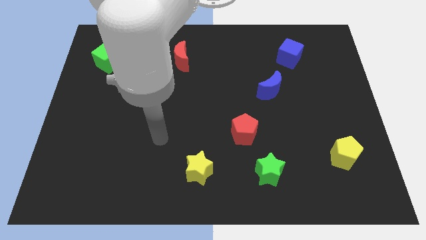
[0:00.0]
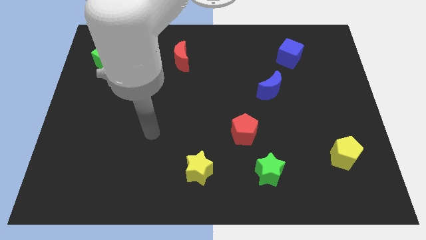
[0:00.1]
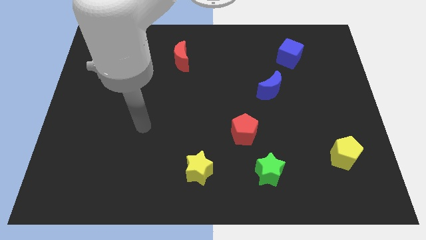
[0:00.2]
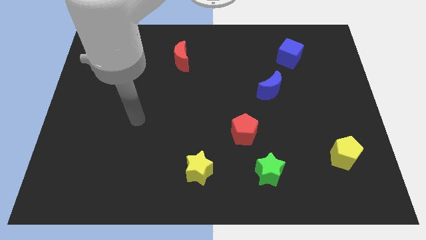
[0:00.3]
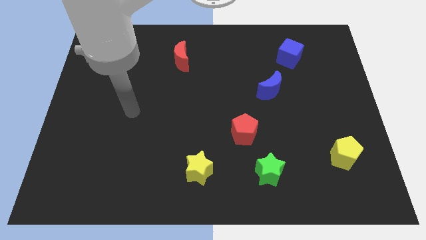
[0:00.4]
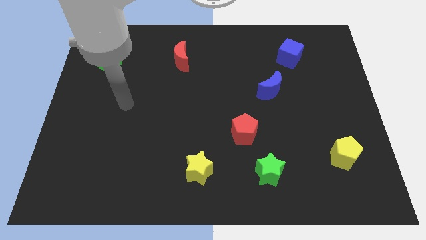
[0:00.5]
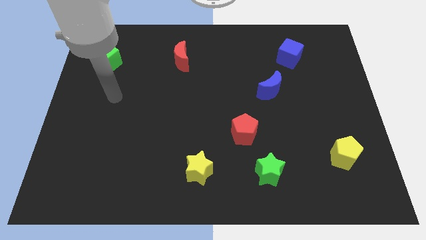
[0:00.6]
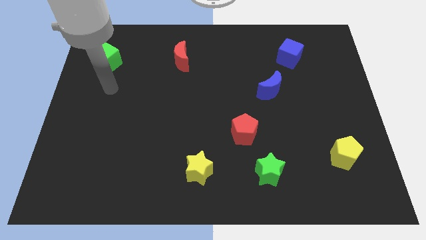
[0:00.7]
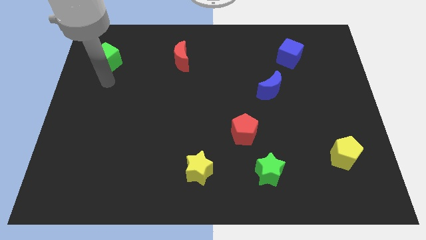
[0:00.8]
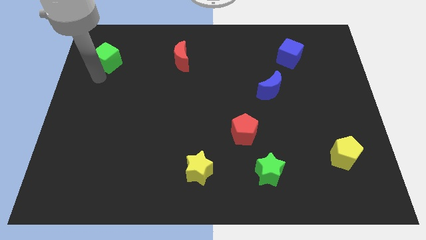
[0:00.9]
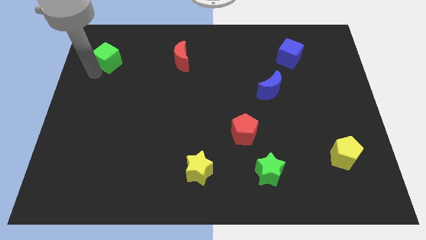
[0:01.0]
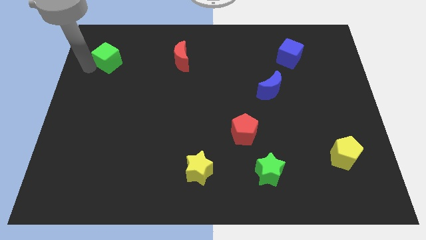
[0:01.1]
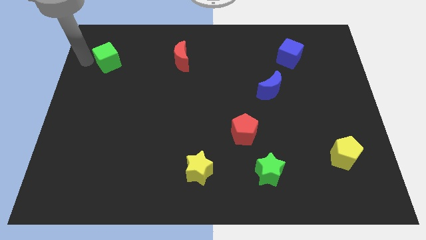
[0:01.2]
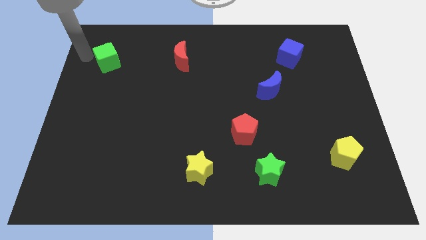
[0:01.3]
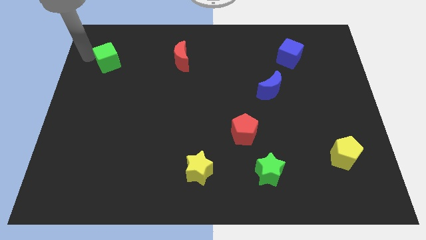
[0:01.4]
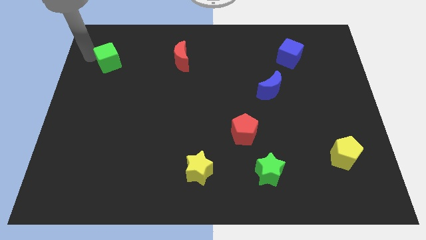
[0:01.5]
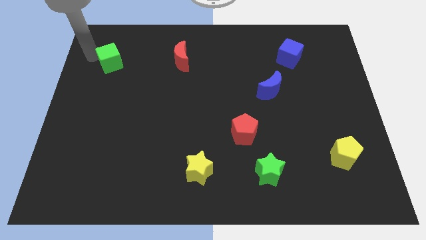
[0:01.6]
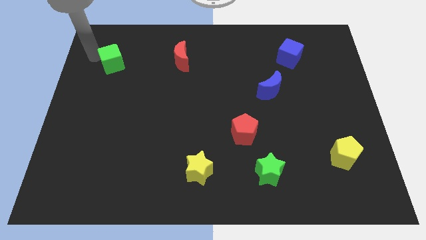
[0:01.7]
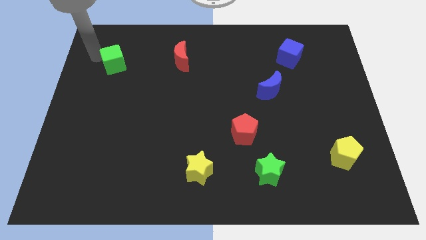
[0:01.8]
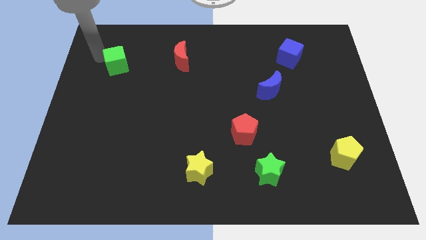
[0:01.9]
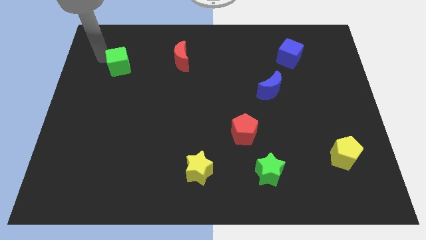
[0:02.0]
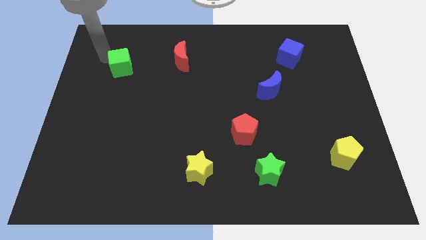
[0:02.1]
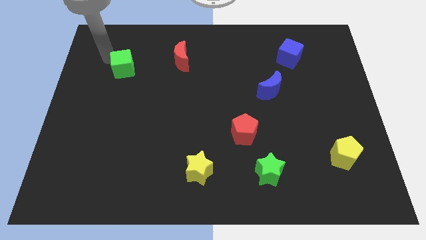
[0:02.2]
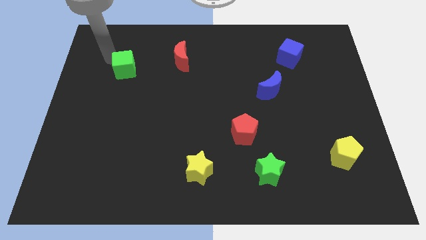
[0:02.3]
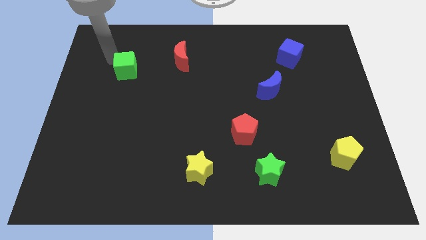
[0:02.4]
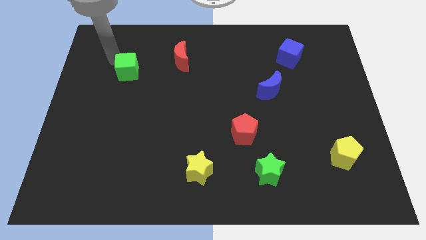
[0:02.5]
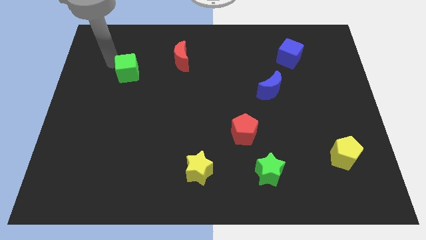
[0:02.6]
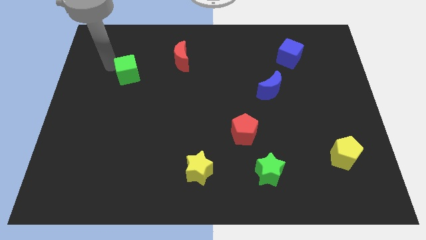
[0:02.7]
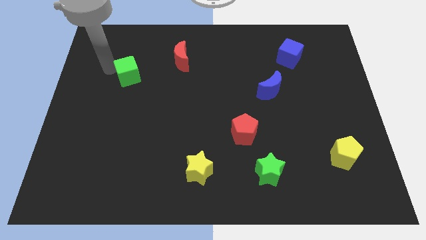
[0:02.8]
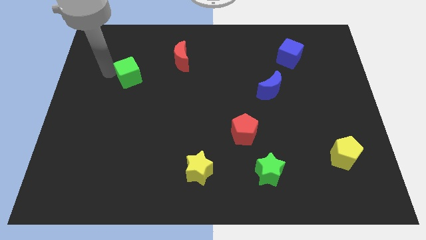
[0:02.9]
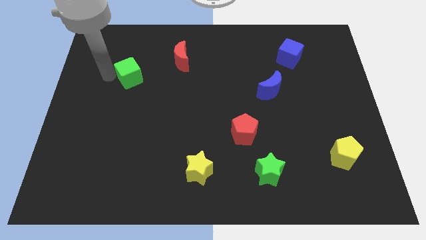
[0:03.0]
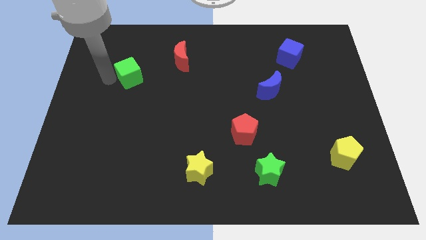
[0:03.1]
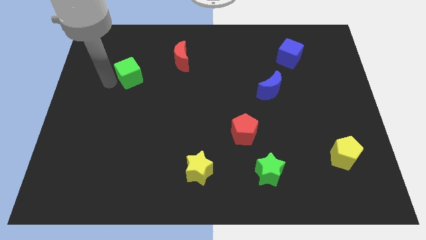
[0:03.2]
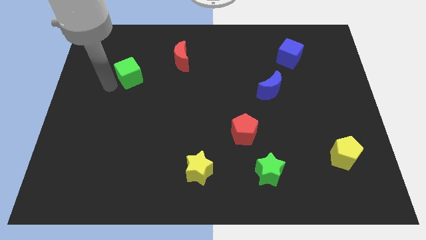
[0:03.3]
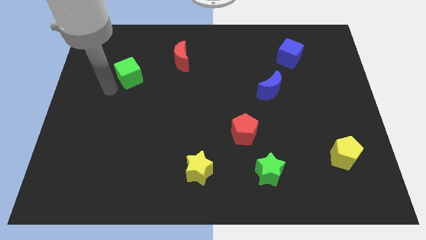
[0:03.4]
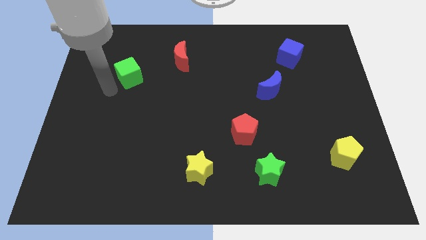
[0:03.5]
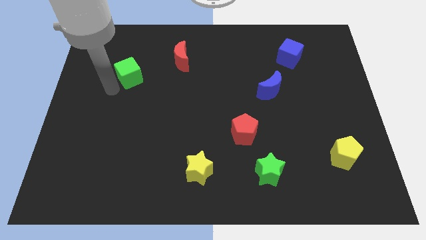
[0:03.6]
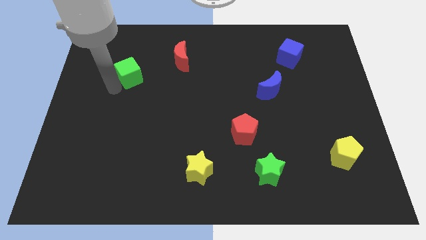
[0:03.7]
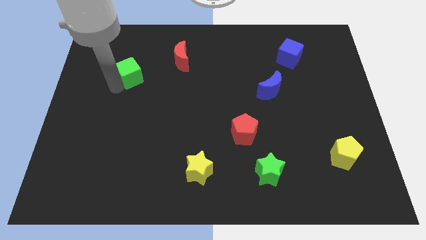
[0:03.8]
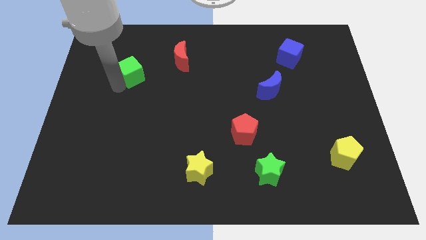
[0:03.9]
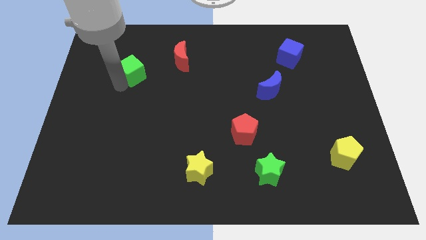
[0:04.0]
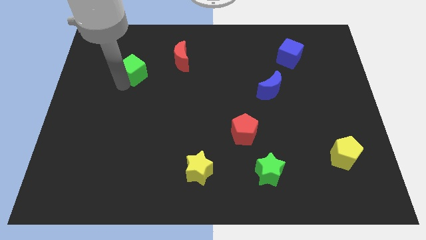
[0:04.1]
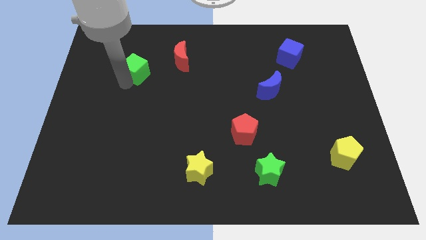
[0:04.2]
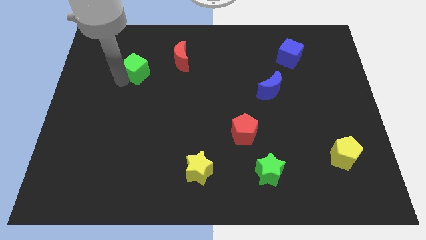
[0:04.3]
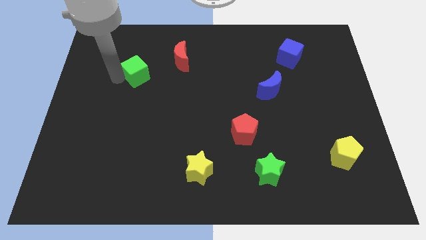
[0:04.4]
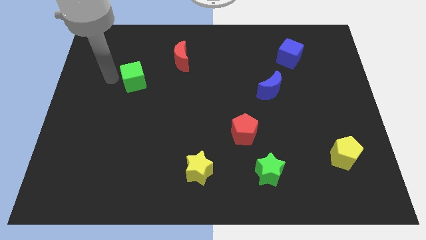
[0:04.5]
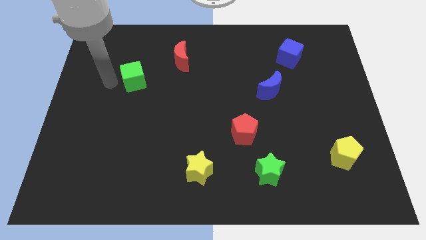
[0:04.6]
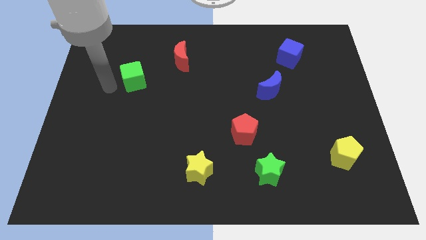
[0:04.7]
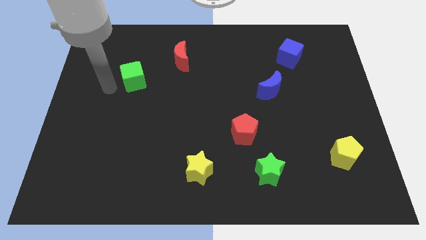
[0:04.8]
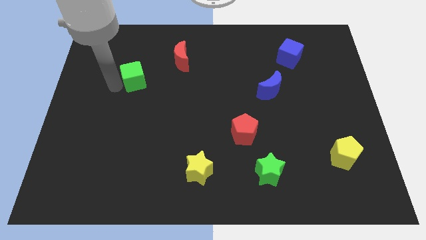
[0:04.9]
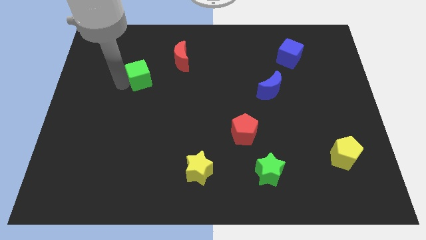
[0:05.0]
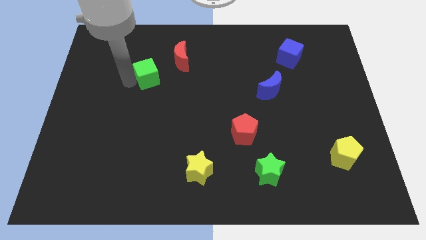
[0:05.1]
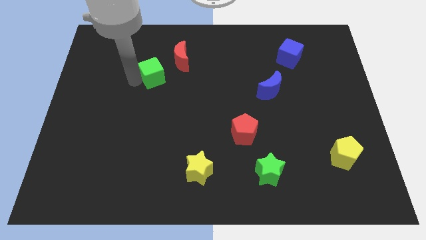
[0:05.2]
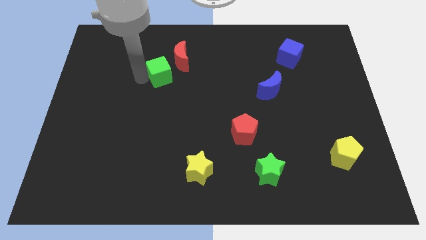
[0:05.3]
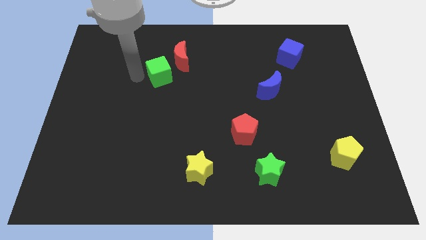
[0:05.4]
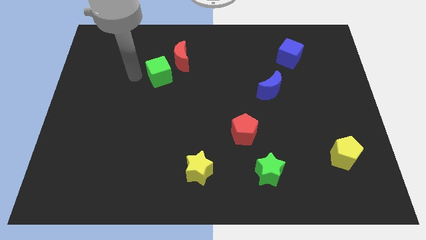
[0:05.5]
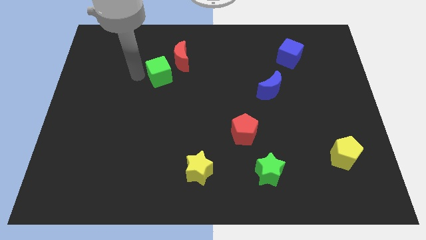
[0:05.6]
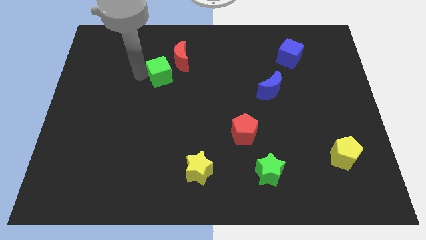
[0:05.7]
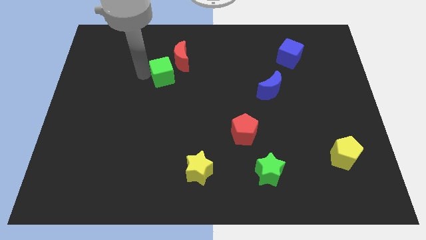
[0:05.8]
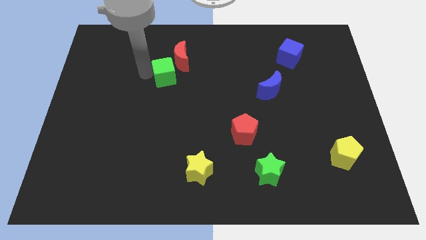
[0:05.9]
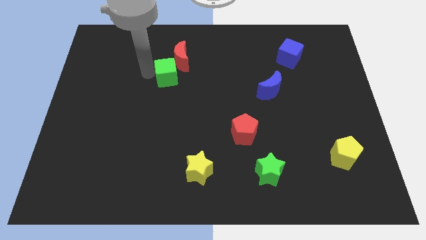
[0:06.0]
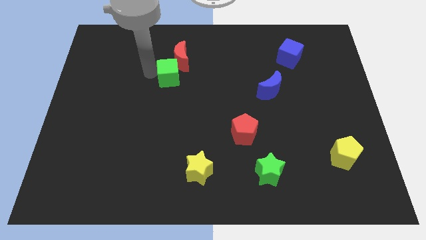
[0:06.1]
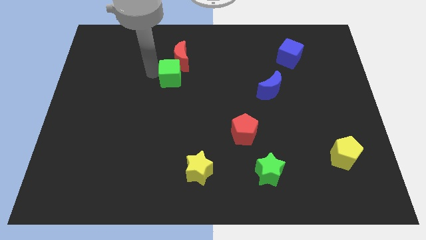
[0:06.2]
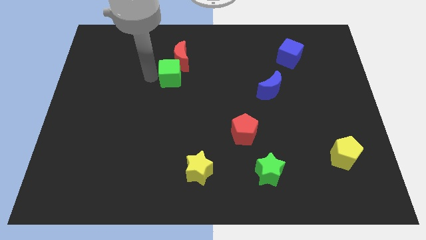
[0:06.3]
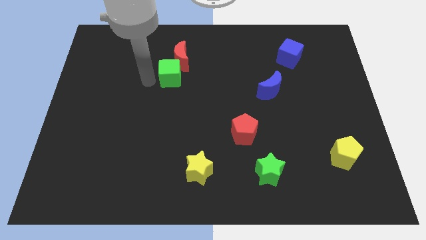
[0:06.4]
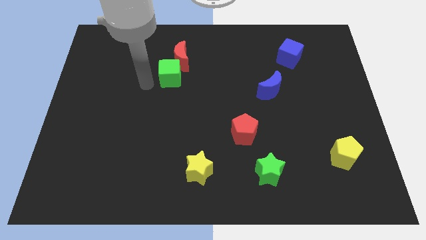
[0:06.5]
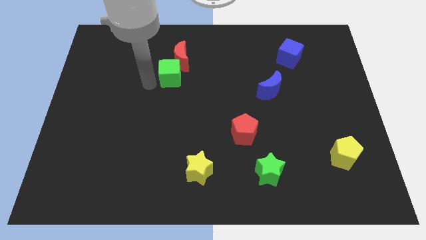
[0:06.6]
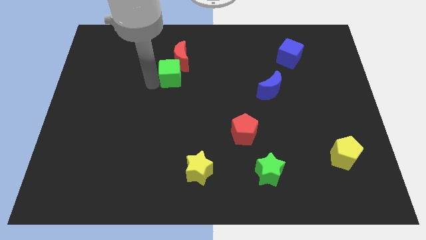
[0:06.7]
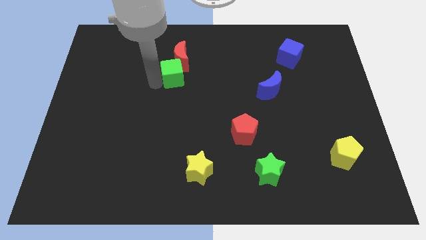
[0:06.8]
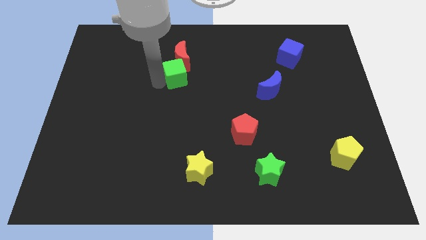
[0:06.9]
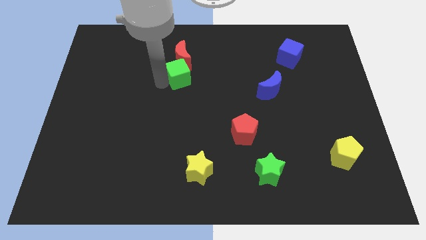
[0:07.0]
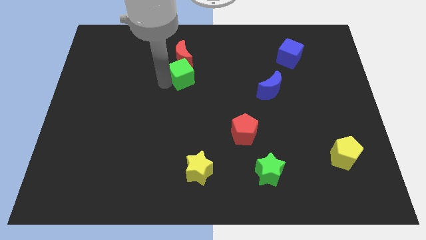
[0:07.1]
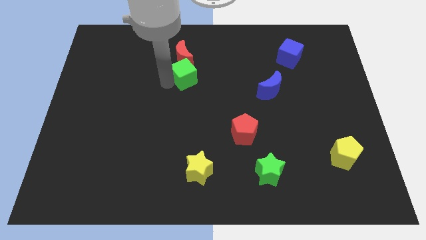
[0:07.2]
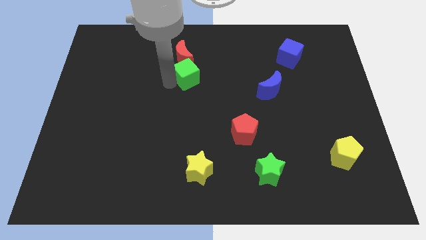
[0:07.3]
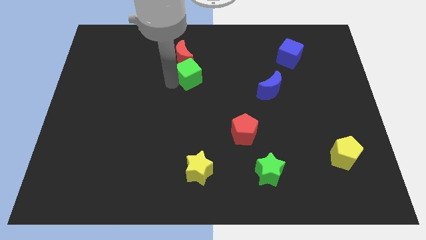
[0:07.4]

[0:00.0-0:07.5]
move the green cube right

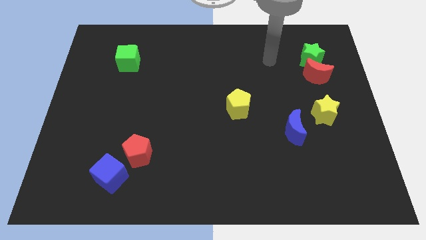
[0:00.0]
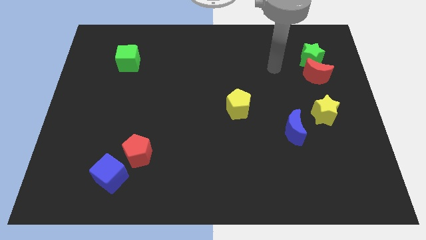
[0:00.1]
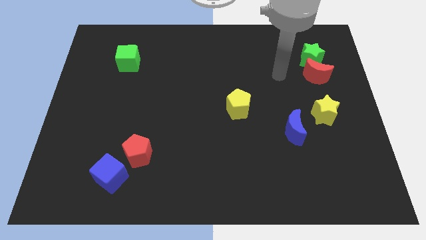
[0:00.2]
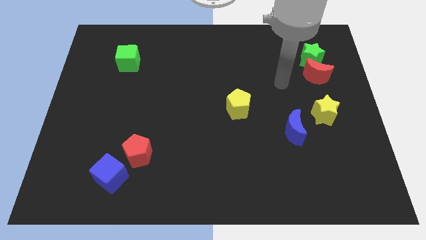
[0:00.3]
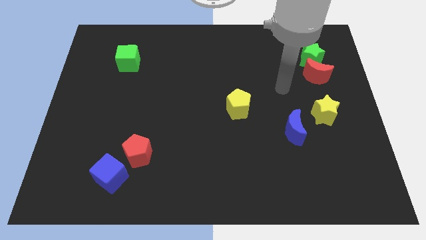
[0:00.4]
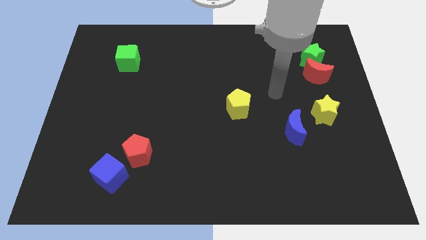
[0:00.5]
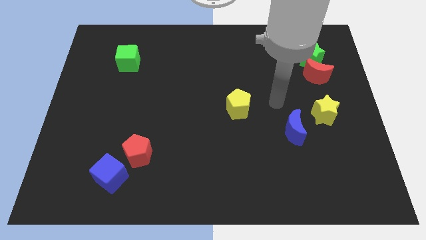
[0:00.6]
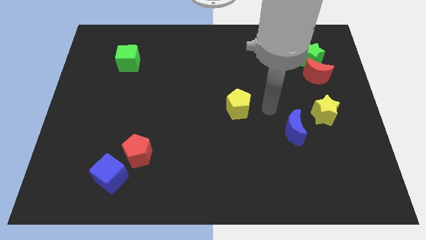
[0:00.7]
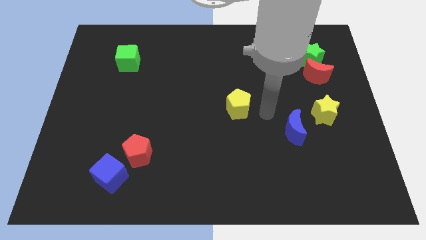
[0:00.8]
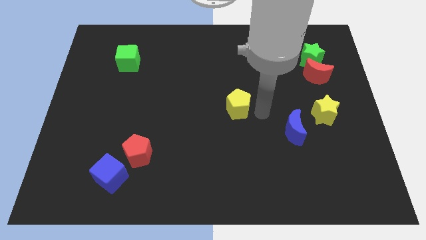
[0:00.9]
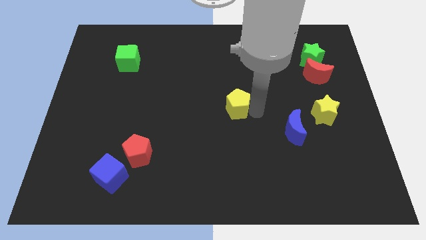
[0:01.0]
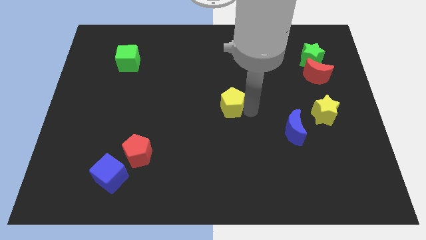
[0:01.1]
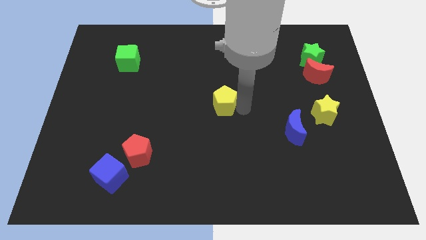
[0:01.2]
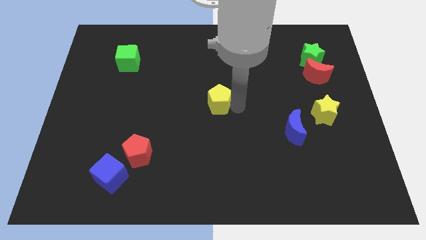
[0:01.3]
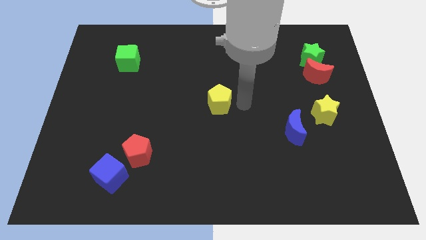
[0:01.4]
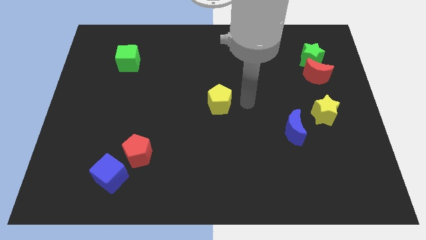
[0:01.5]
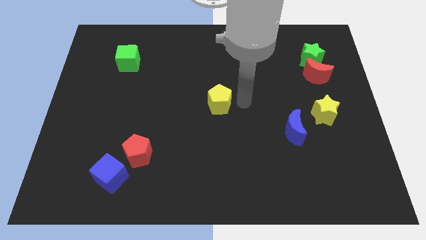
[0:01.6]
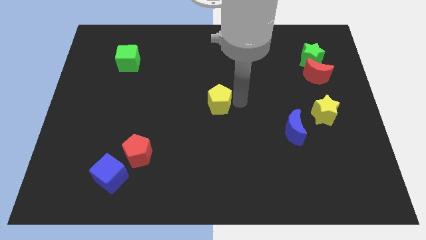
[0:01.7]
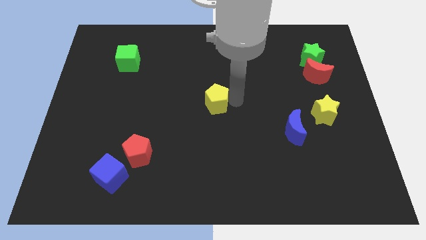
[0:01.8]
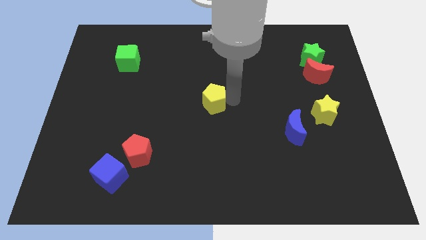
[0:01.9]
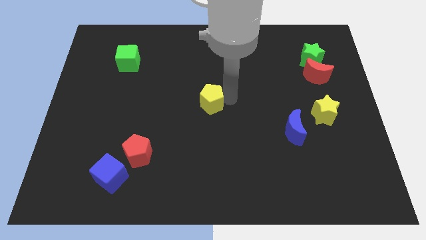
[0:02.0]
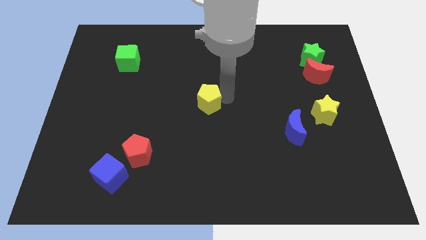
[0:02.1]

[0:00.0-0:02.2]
slide the yellow pentagon somewhat left
